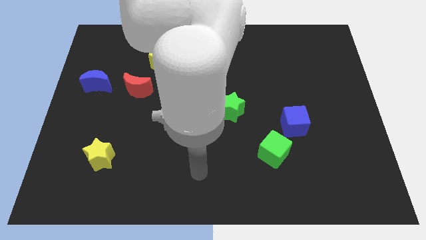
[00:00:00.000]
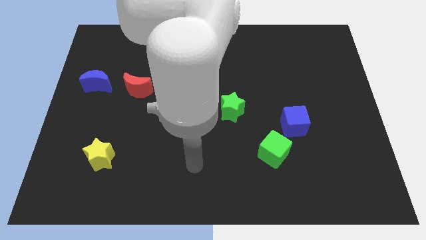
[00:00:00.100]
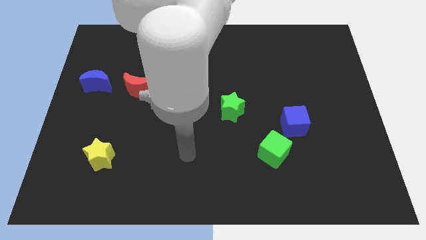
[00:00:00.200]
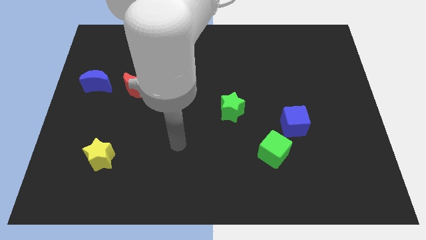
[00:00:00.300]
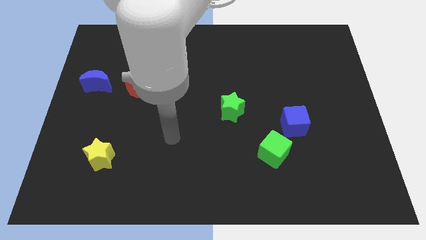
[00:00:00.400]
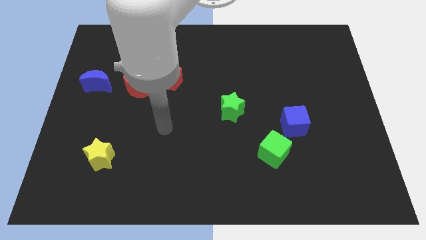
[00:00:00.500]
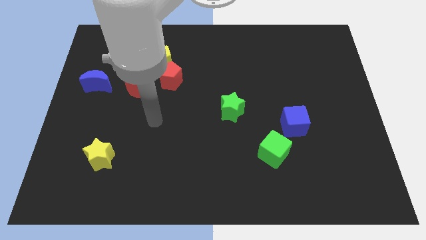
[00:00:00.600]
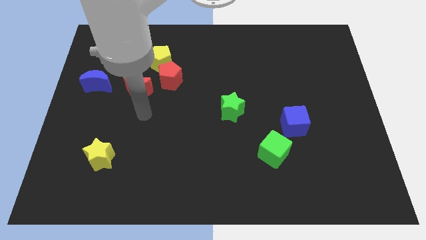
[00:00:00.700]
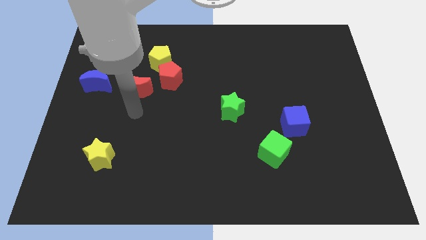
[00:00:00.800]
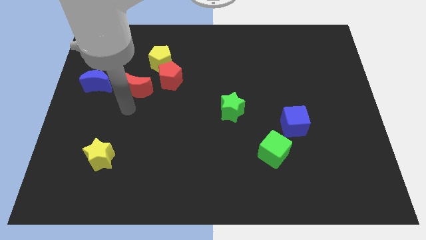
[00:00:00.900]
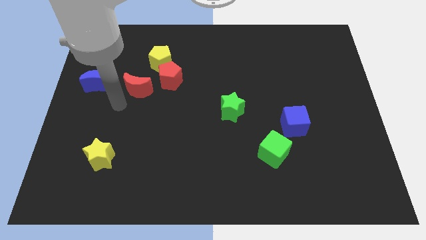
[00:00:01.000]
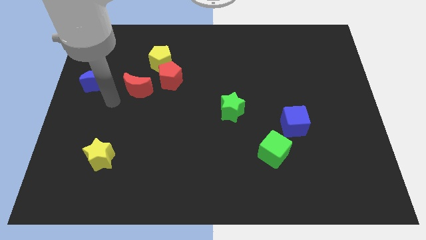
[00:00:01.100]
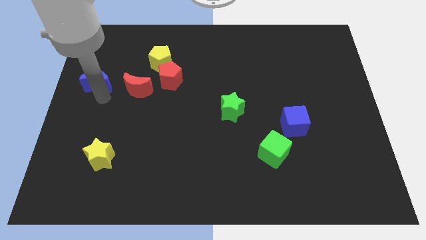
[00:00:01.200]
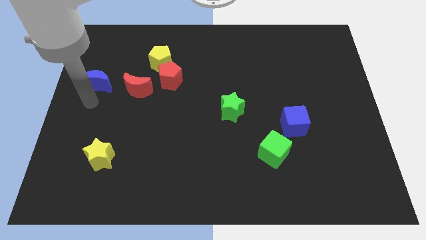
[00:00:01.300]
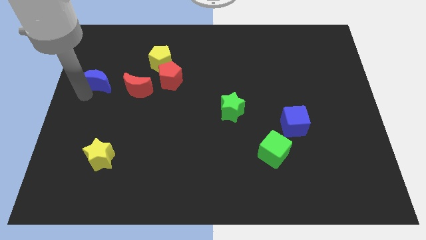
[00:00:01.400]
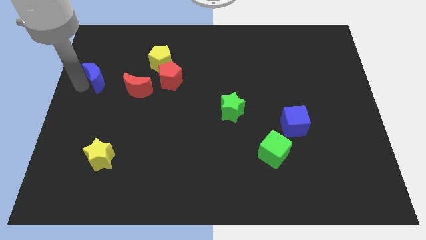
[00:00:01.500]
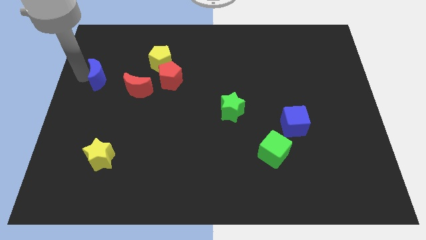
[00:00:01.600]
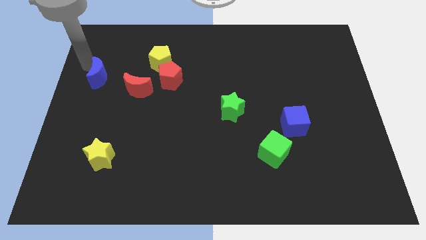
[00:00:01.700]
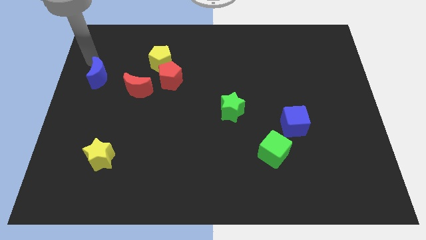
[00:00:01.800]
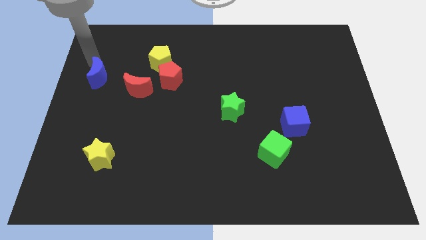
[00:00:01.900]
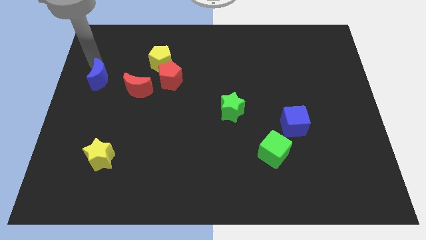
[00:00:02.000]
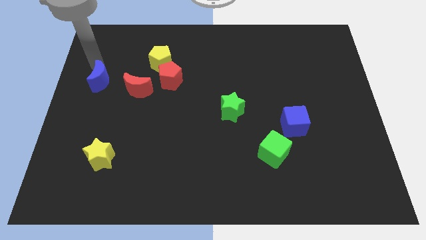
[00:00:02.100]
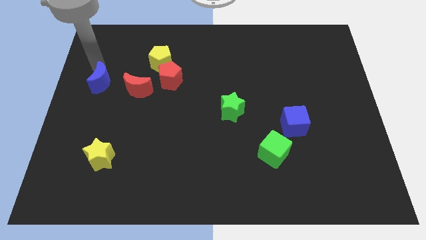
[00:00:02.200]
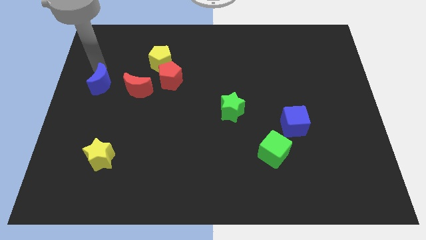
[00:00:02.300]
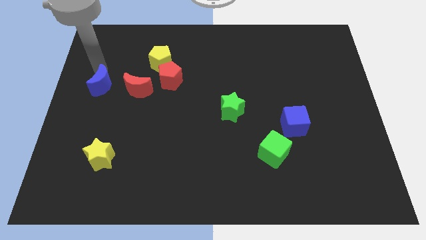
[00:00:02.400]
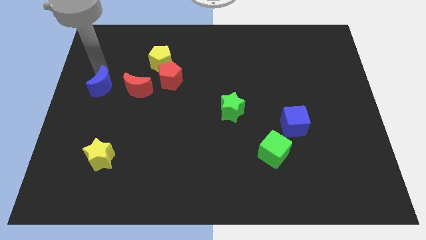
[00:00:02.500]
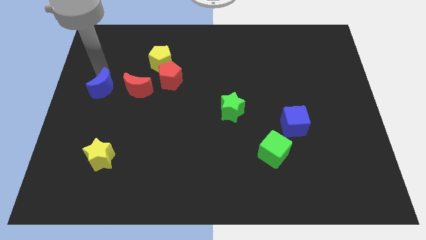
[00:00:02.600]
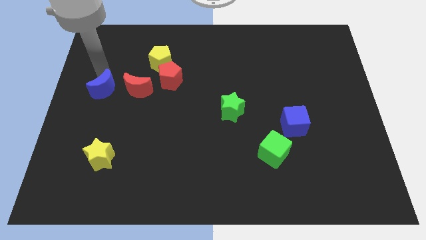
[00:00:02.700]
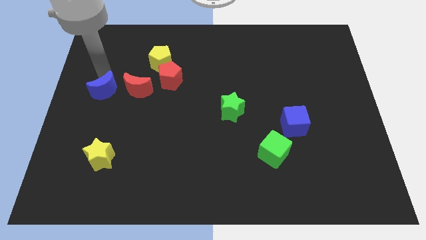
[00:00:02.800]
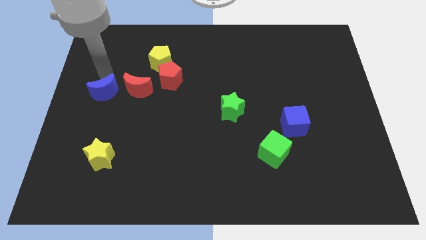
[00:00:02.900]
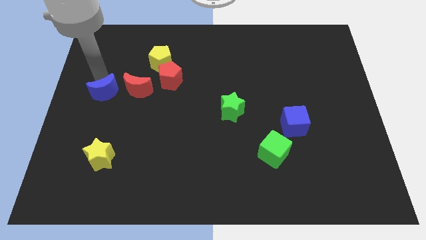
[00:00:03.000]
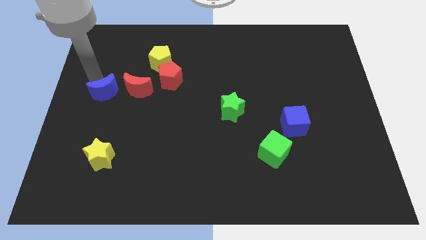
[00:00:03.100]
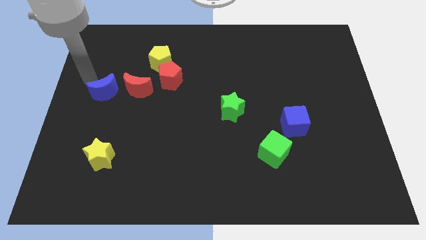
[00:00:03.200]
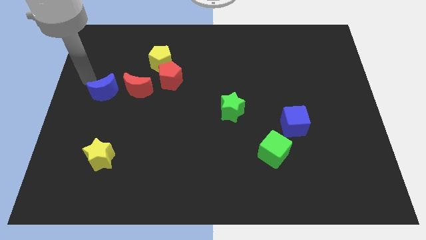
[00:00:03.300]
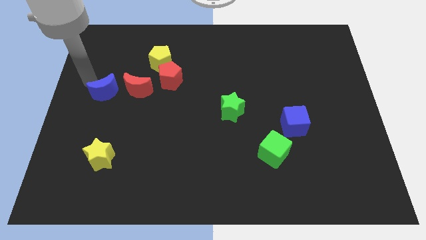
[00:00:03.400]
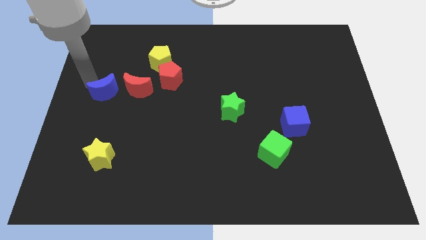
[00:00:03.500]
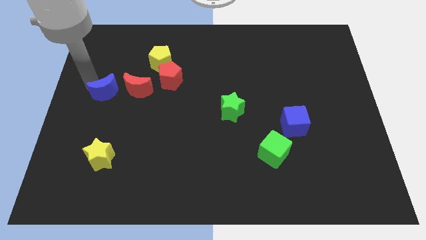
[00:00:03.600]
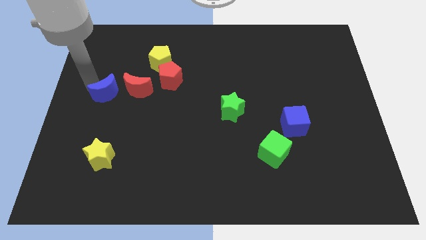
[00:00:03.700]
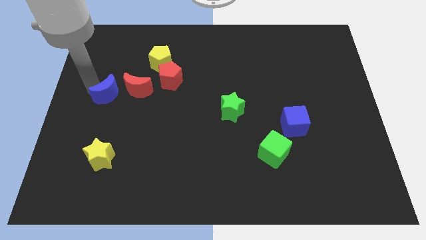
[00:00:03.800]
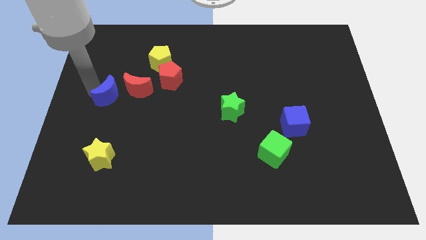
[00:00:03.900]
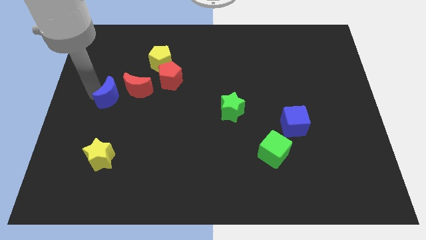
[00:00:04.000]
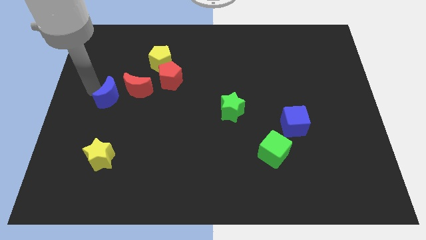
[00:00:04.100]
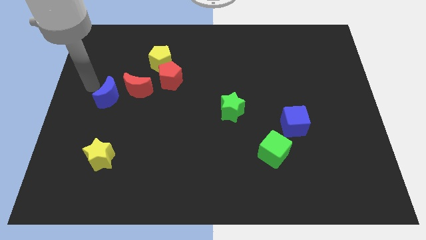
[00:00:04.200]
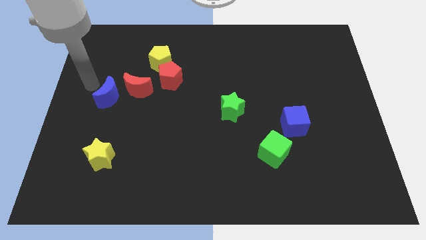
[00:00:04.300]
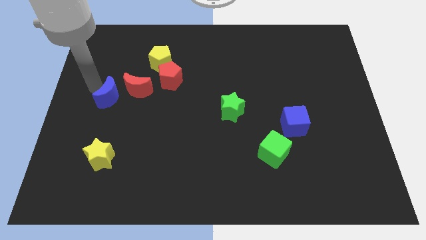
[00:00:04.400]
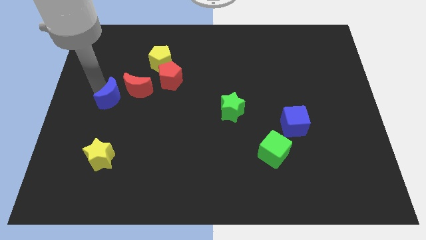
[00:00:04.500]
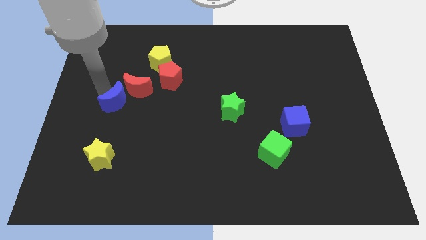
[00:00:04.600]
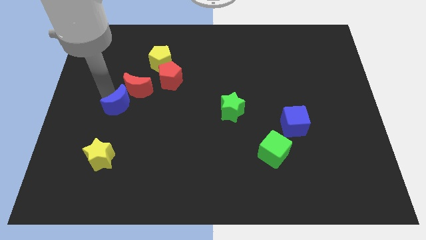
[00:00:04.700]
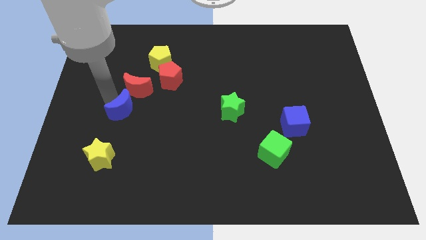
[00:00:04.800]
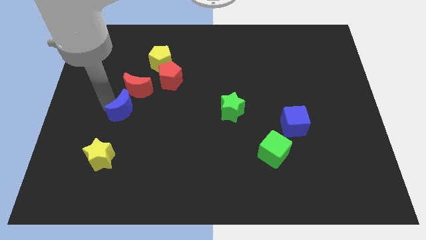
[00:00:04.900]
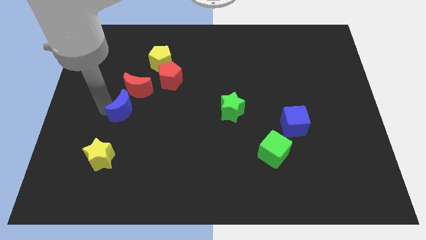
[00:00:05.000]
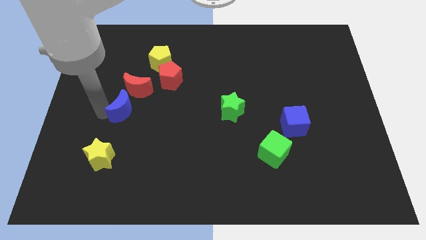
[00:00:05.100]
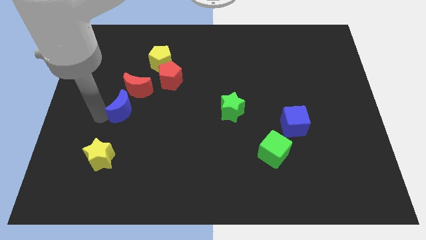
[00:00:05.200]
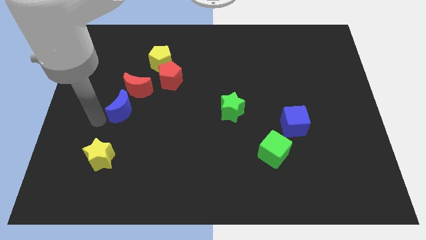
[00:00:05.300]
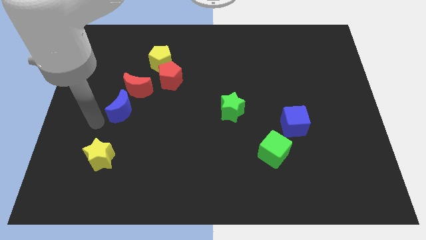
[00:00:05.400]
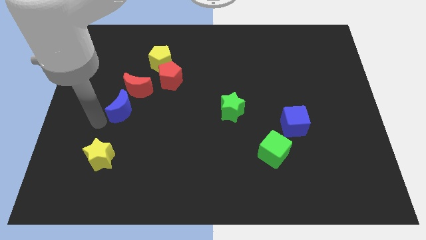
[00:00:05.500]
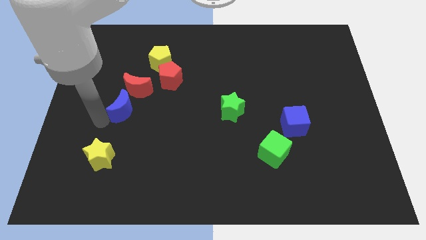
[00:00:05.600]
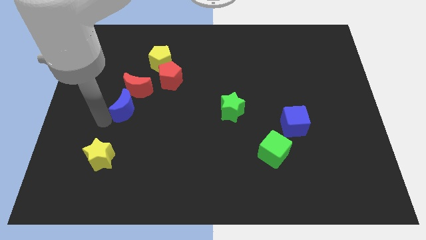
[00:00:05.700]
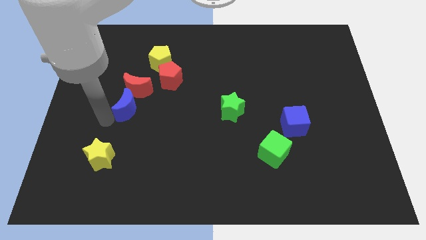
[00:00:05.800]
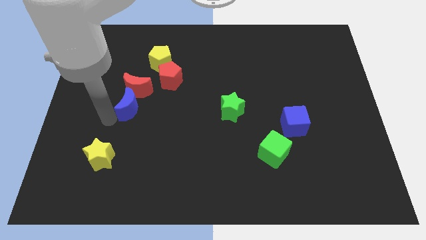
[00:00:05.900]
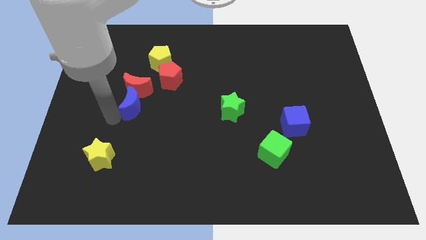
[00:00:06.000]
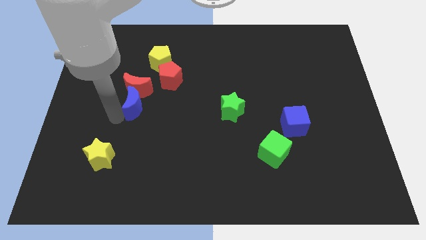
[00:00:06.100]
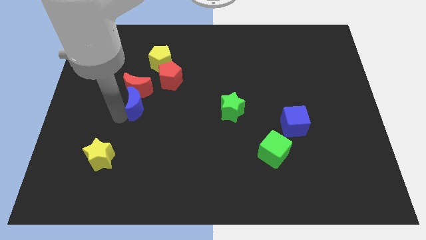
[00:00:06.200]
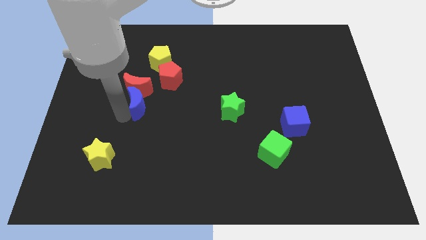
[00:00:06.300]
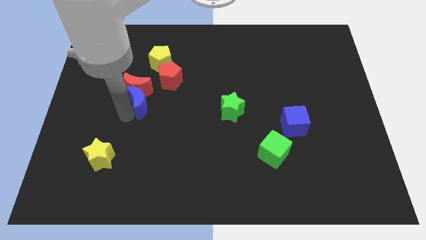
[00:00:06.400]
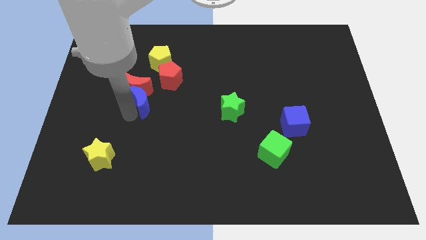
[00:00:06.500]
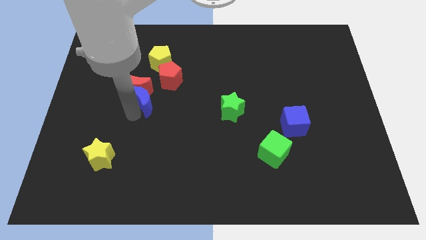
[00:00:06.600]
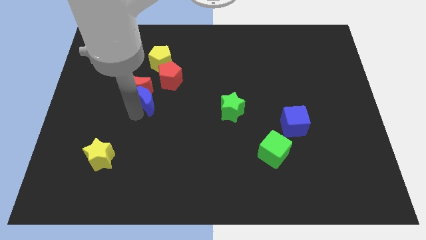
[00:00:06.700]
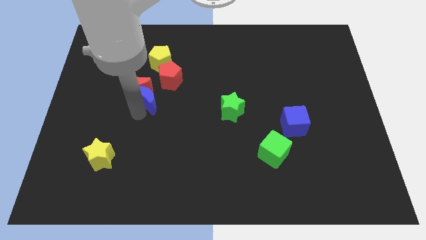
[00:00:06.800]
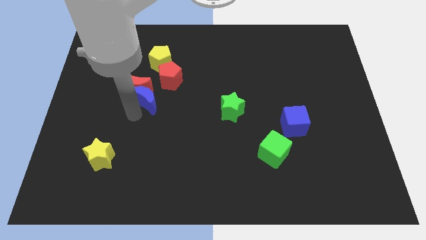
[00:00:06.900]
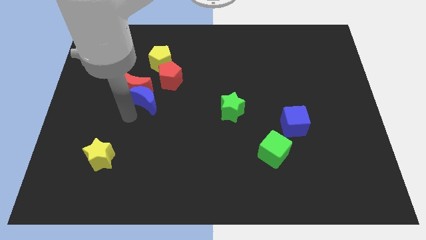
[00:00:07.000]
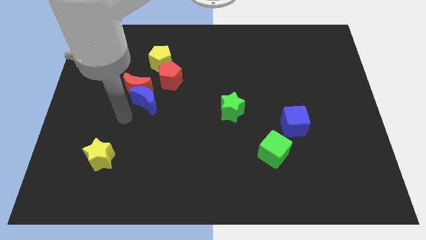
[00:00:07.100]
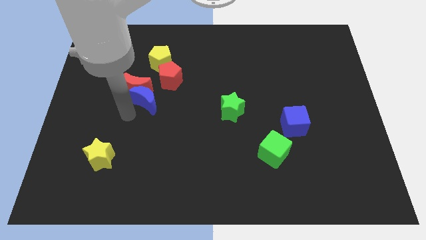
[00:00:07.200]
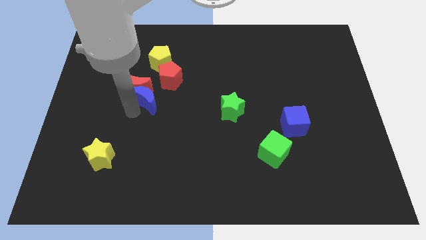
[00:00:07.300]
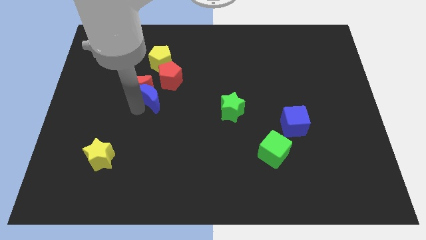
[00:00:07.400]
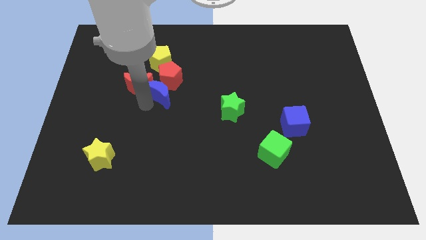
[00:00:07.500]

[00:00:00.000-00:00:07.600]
slide the blue moon close to the red pentagon
